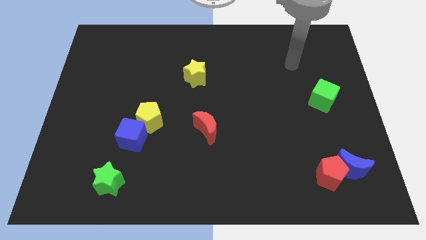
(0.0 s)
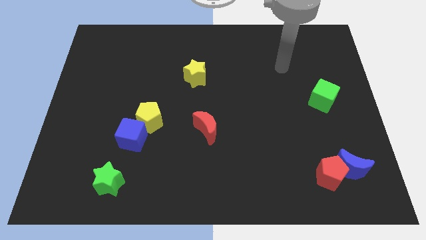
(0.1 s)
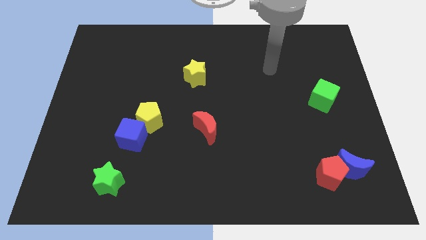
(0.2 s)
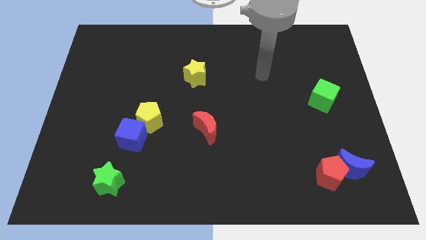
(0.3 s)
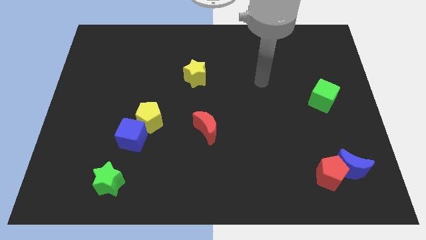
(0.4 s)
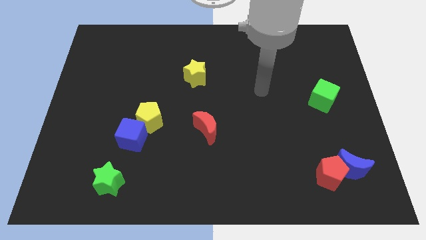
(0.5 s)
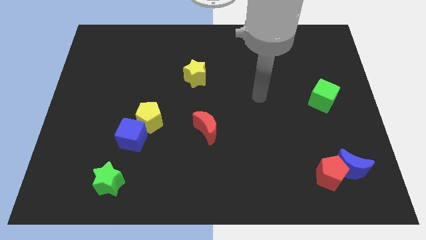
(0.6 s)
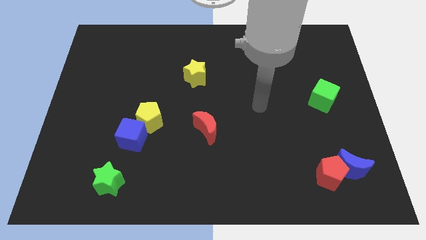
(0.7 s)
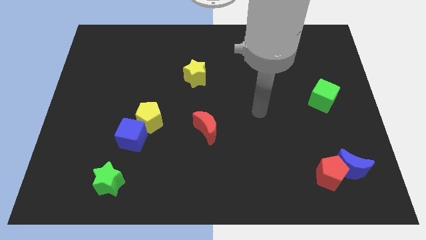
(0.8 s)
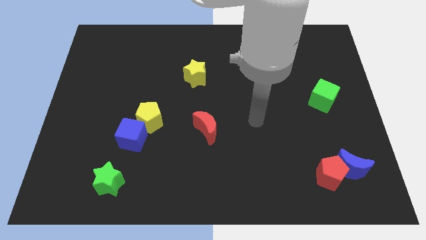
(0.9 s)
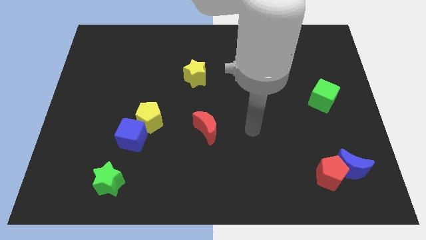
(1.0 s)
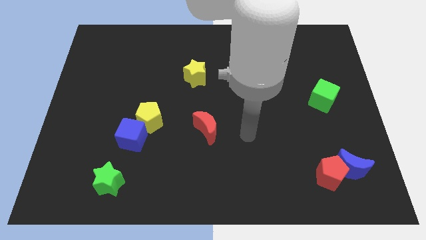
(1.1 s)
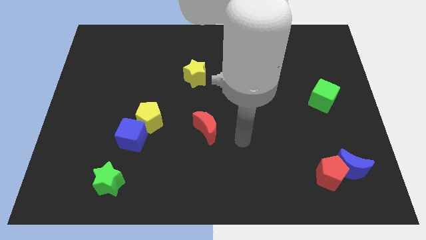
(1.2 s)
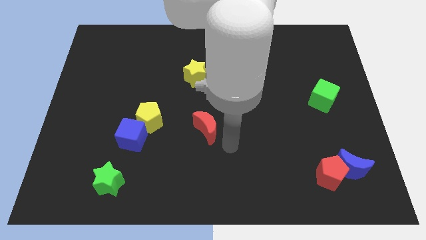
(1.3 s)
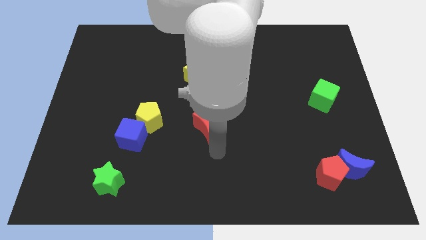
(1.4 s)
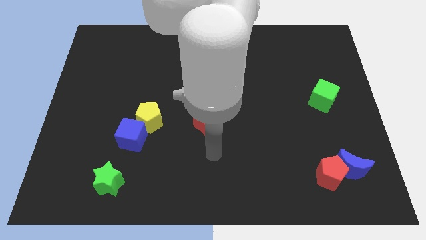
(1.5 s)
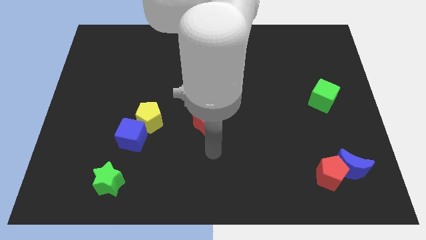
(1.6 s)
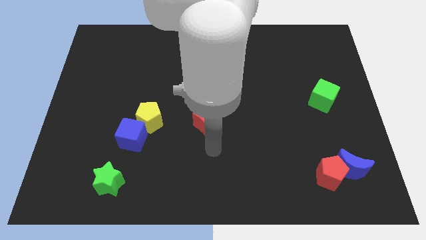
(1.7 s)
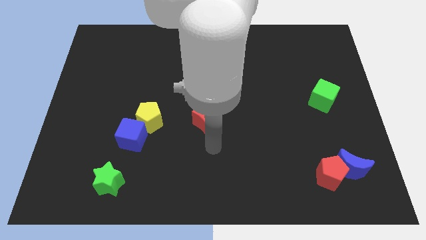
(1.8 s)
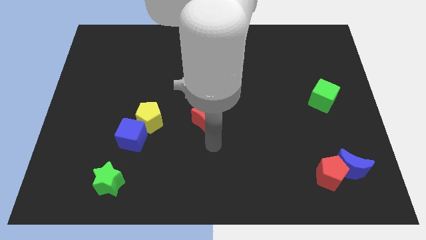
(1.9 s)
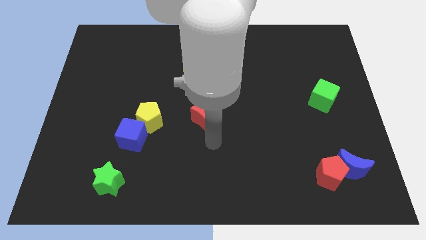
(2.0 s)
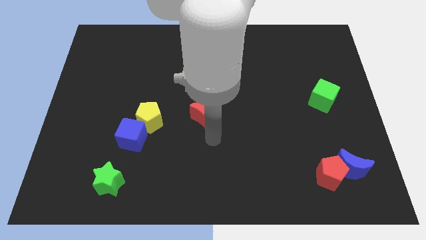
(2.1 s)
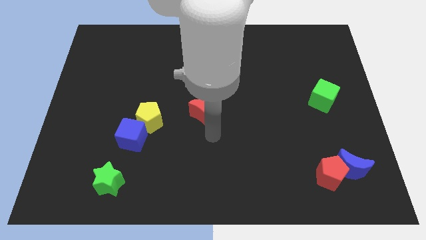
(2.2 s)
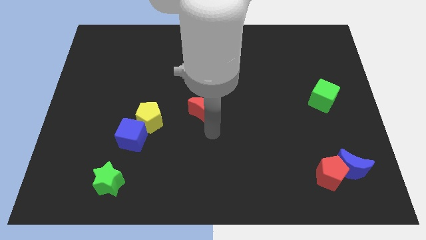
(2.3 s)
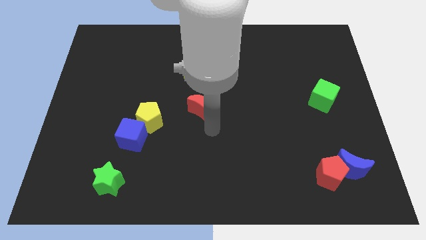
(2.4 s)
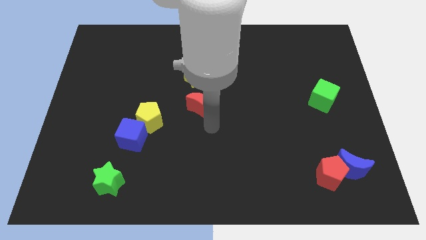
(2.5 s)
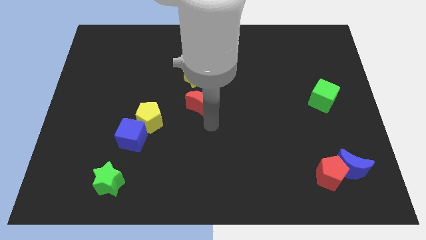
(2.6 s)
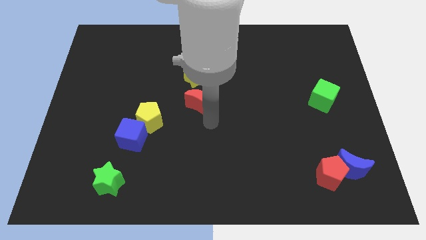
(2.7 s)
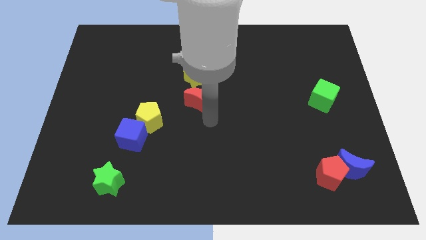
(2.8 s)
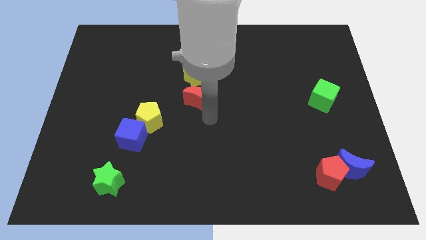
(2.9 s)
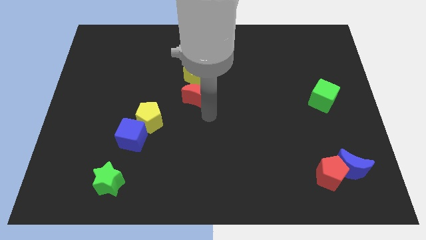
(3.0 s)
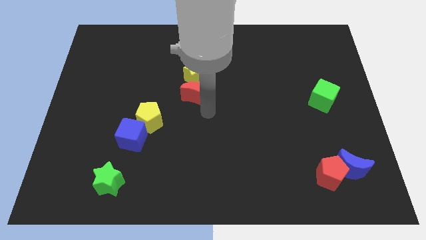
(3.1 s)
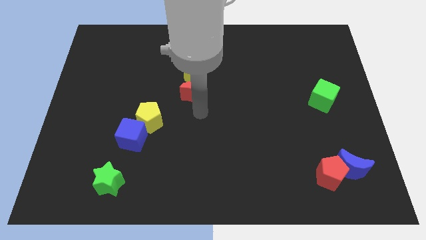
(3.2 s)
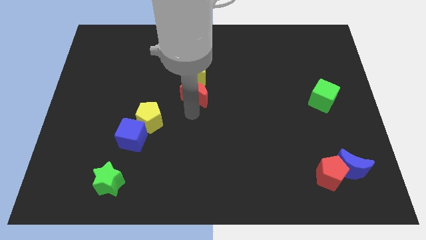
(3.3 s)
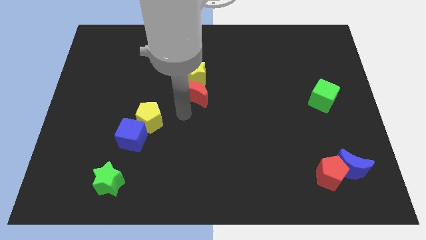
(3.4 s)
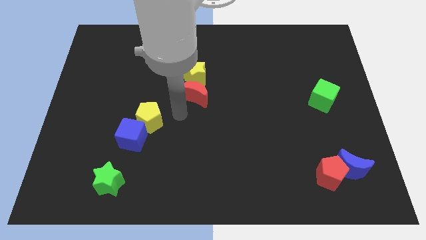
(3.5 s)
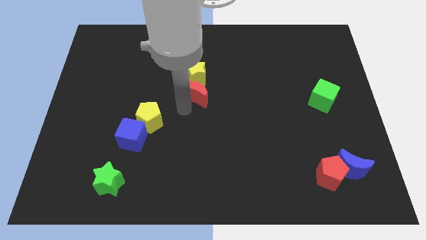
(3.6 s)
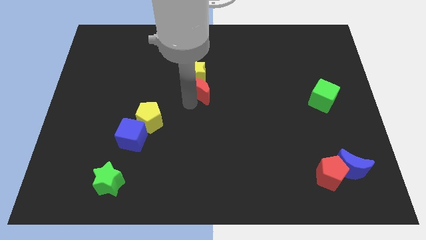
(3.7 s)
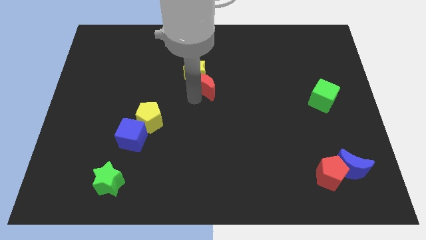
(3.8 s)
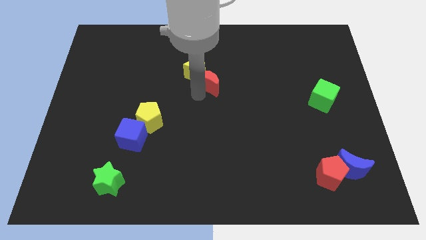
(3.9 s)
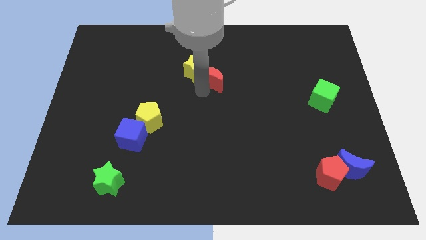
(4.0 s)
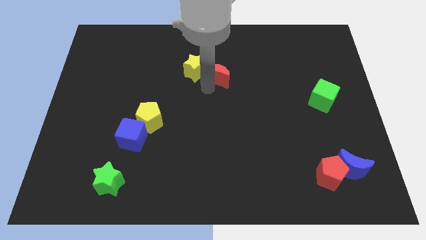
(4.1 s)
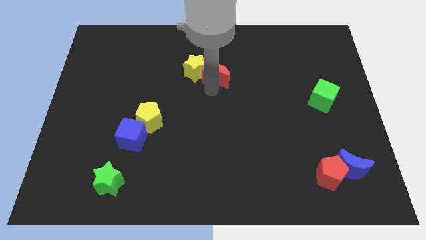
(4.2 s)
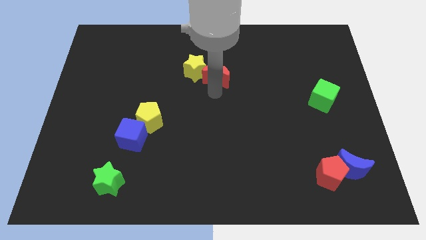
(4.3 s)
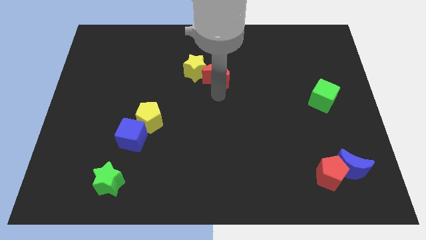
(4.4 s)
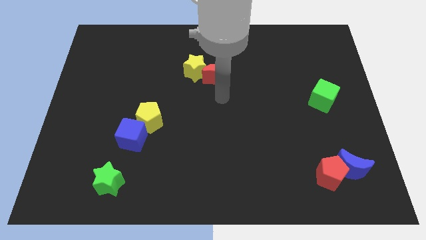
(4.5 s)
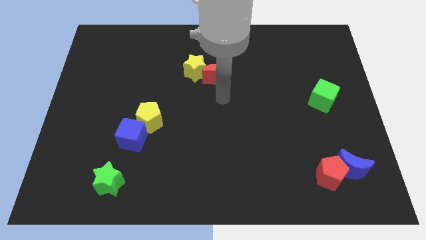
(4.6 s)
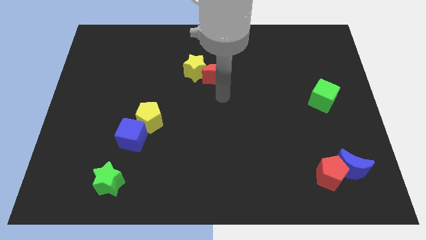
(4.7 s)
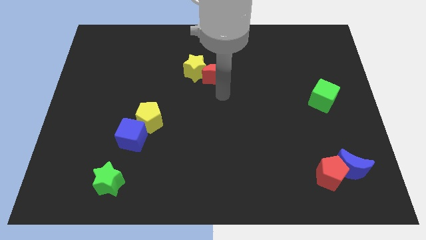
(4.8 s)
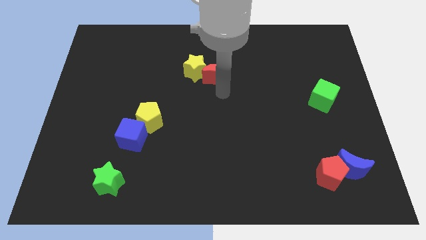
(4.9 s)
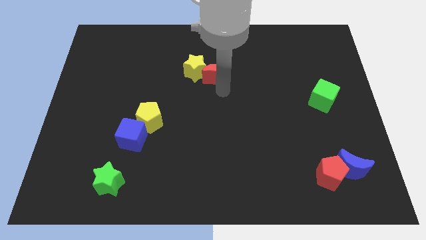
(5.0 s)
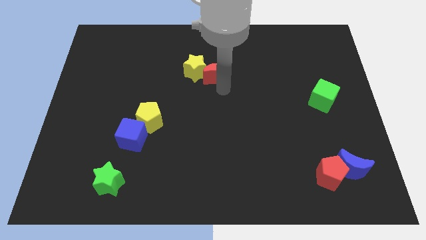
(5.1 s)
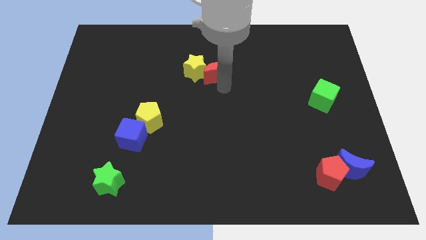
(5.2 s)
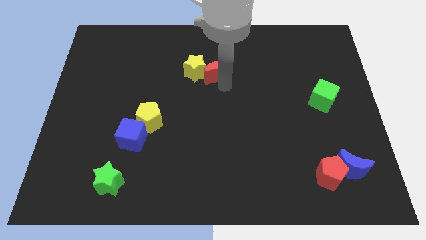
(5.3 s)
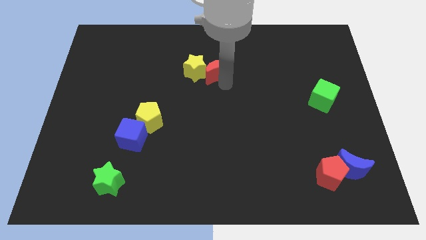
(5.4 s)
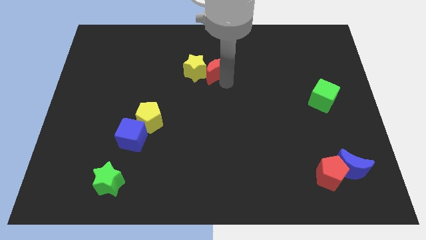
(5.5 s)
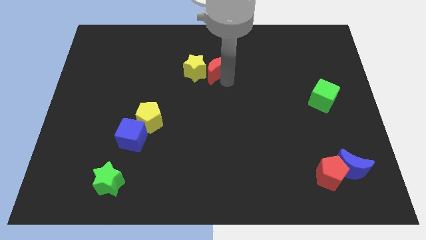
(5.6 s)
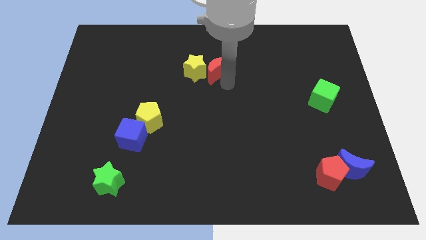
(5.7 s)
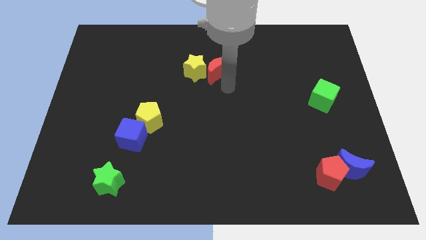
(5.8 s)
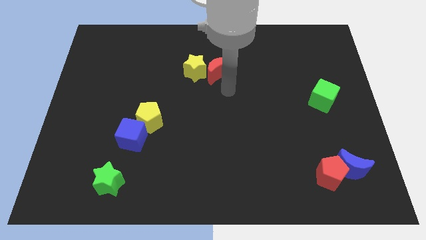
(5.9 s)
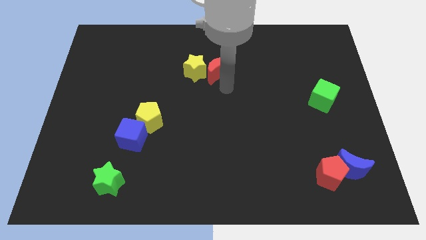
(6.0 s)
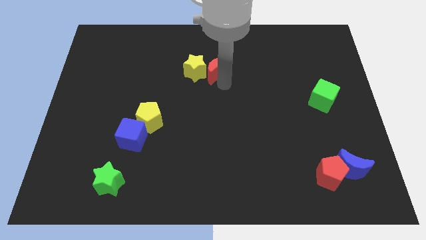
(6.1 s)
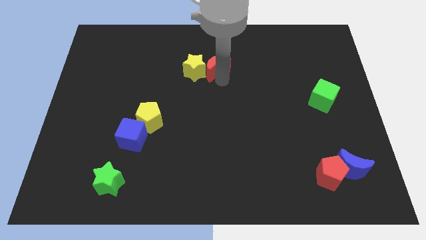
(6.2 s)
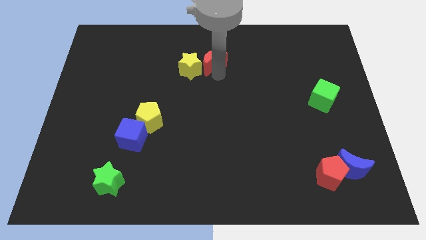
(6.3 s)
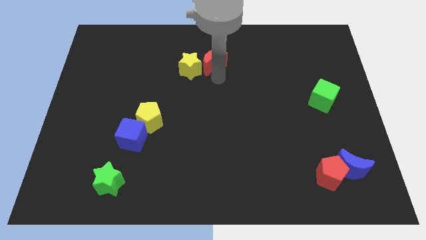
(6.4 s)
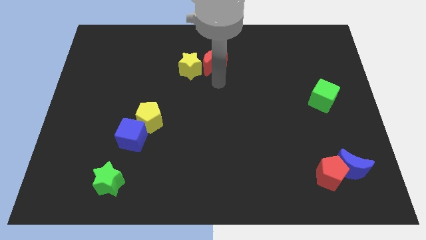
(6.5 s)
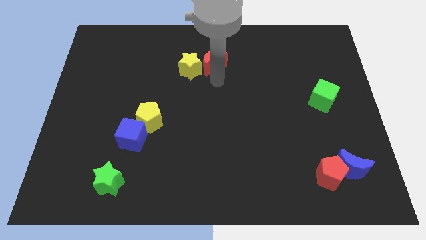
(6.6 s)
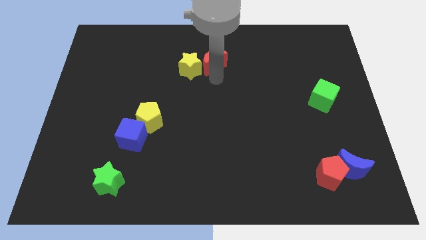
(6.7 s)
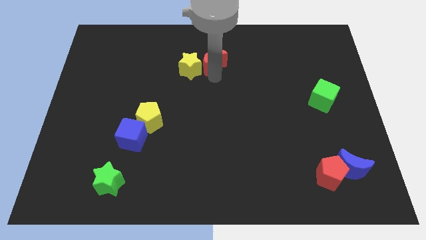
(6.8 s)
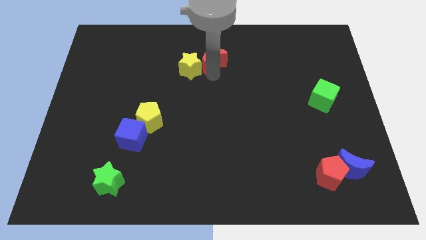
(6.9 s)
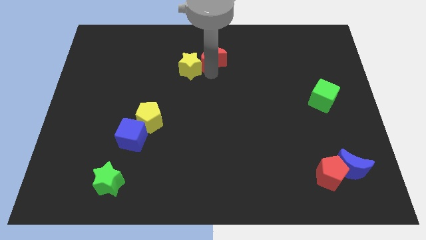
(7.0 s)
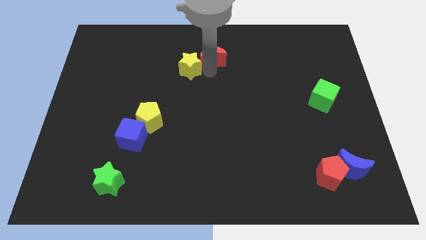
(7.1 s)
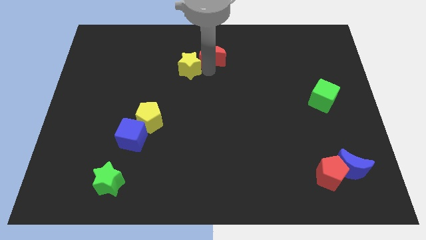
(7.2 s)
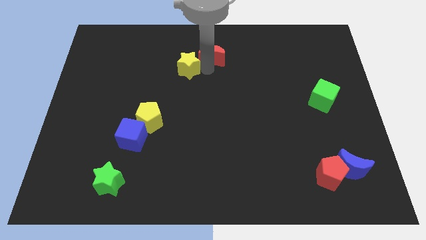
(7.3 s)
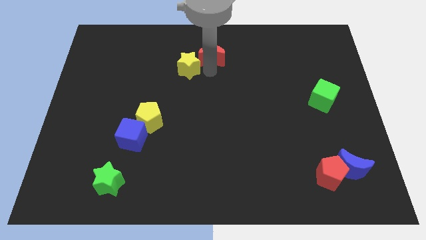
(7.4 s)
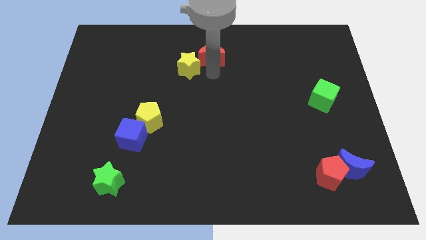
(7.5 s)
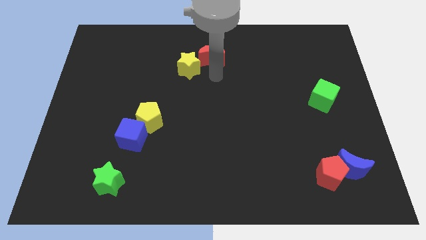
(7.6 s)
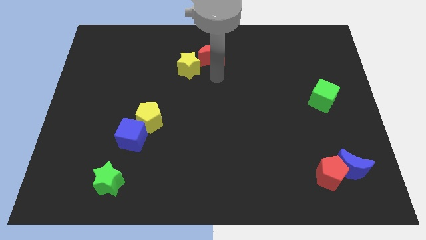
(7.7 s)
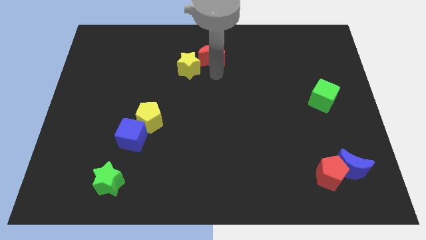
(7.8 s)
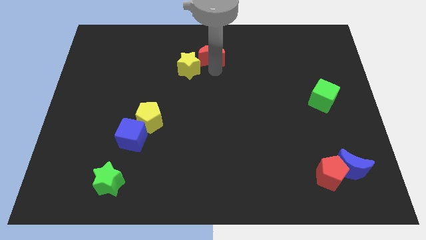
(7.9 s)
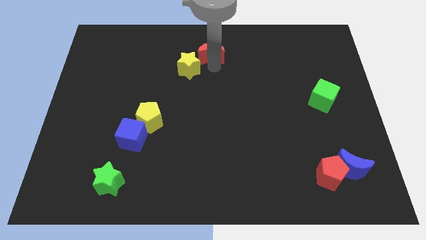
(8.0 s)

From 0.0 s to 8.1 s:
put the red moon to the top
